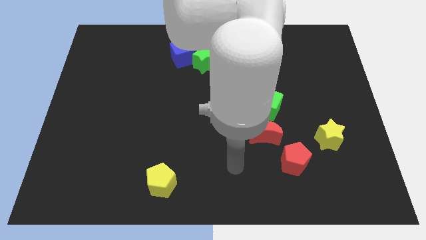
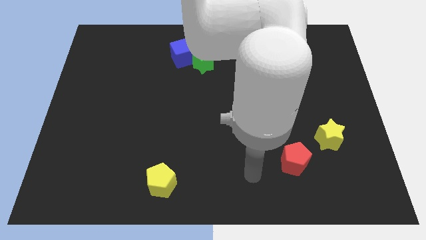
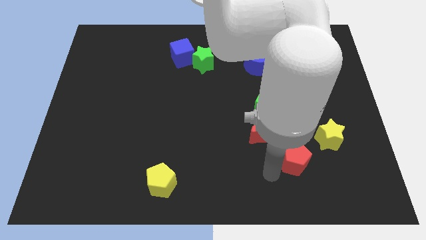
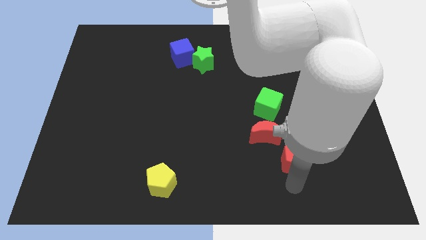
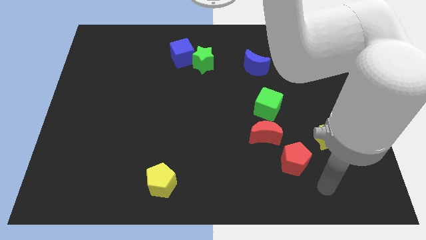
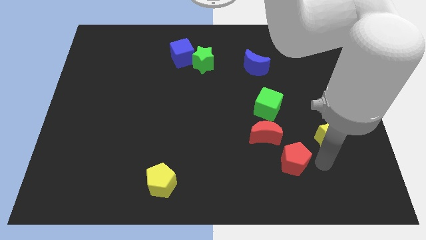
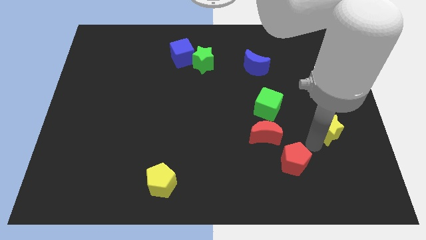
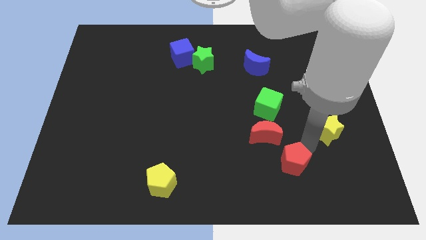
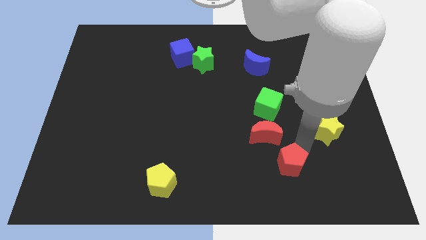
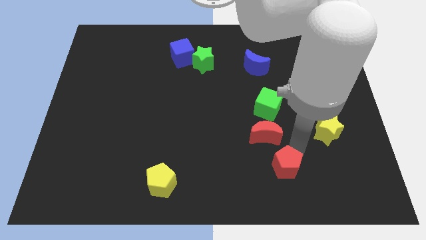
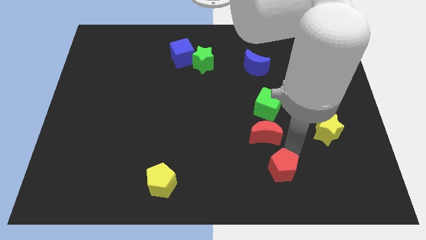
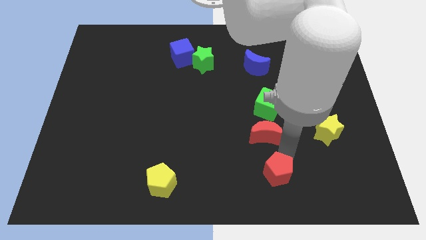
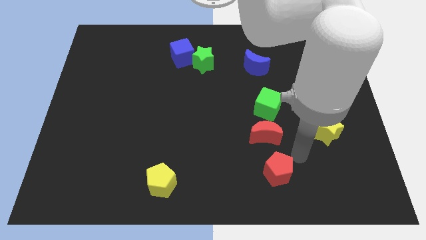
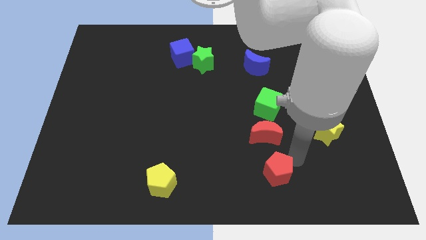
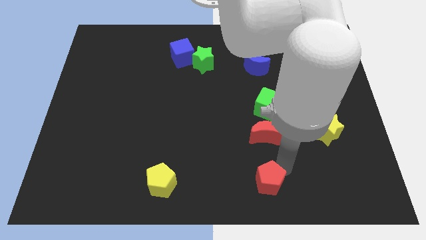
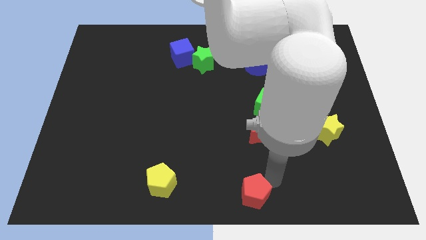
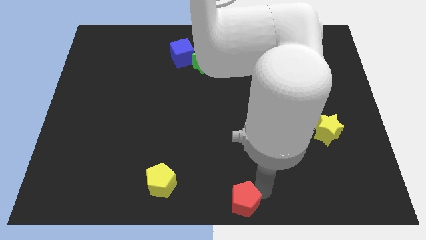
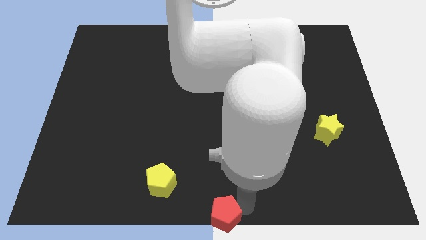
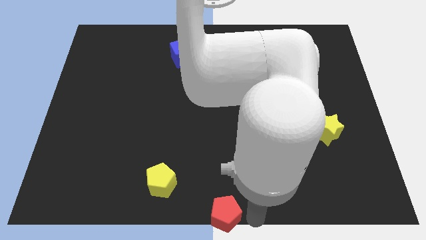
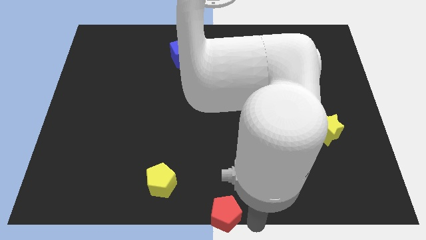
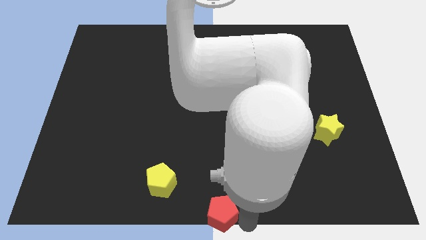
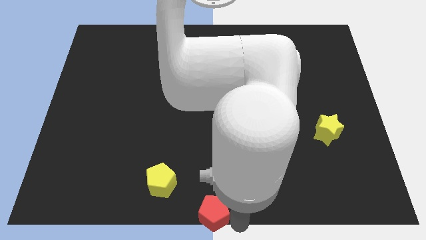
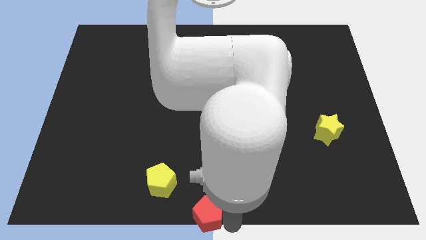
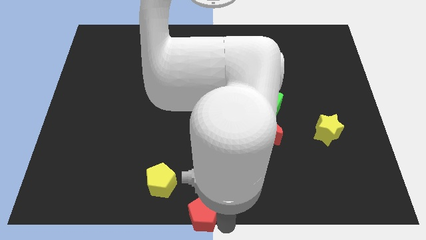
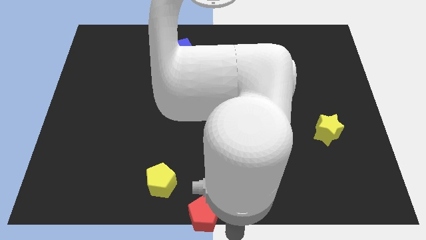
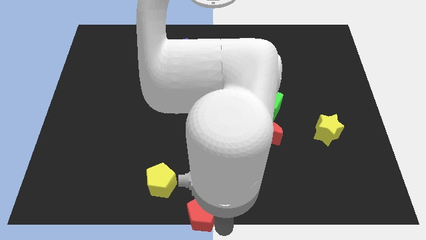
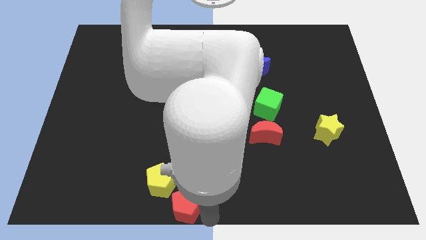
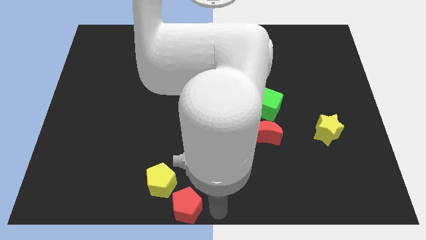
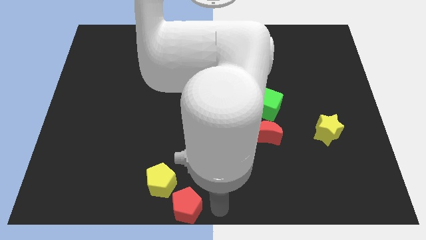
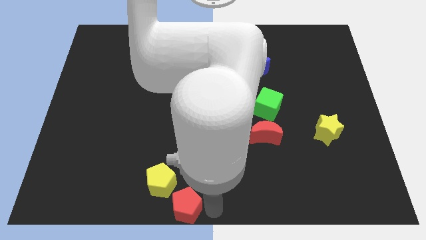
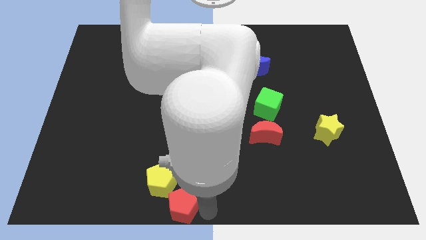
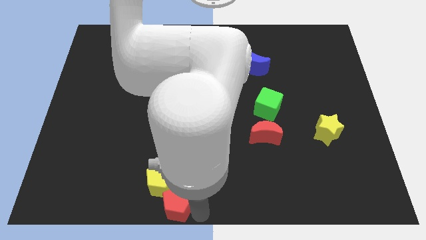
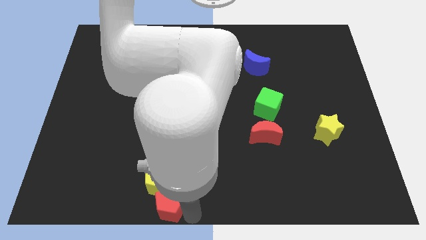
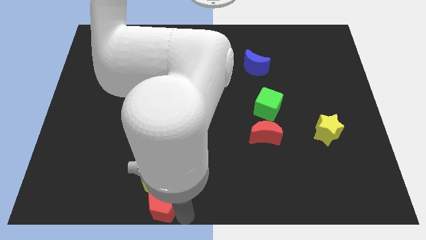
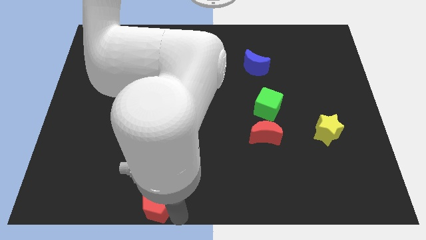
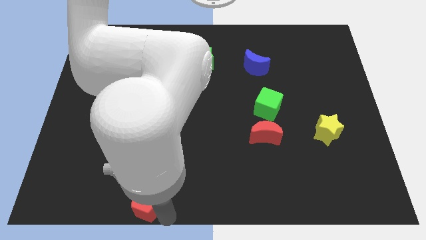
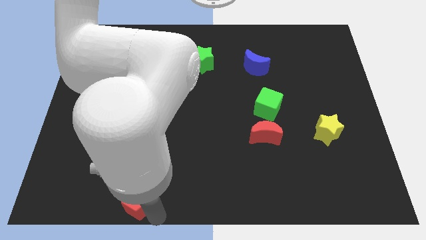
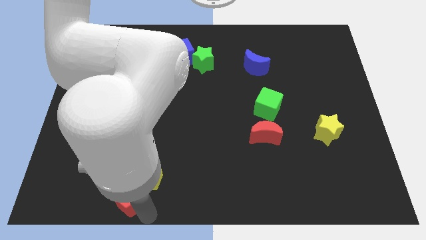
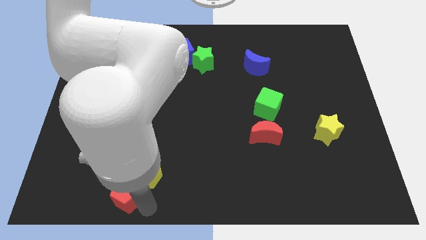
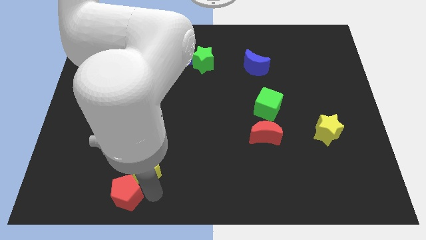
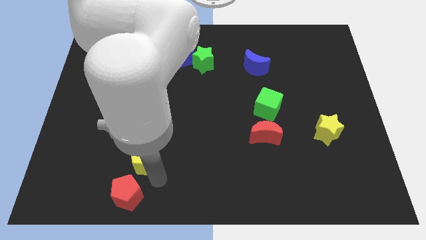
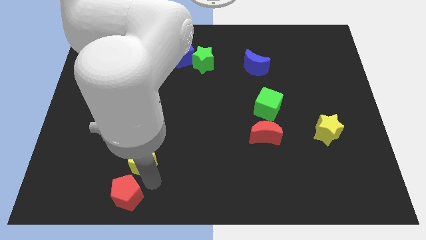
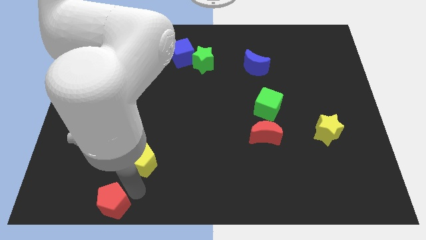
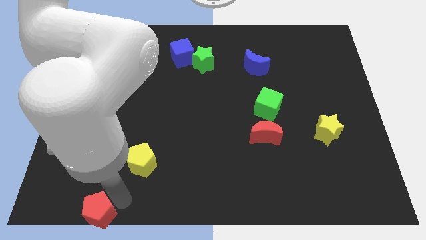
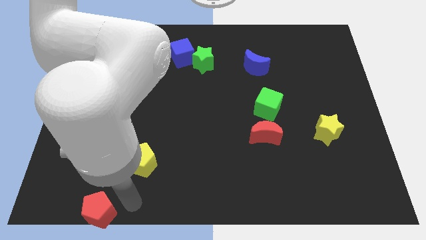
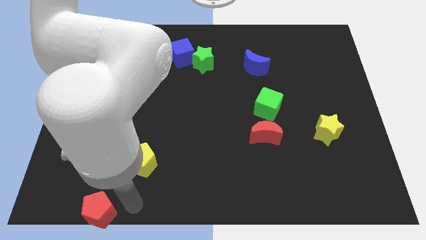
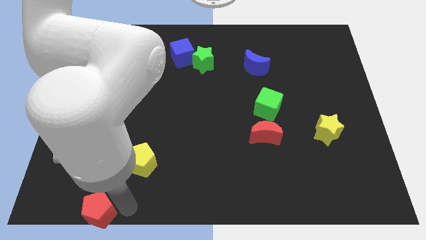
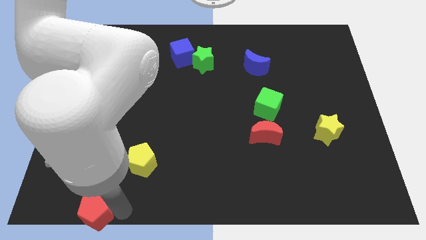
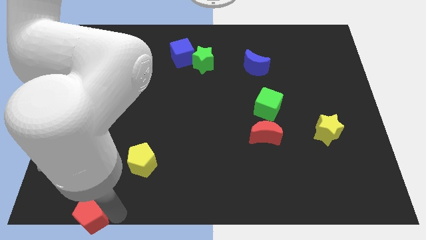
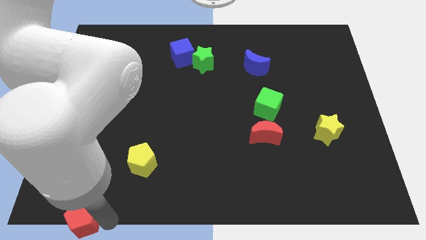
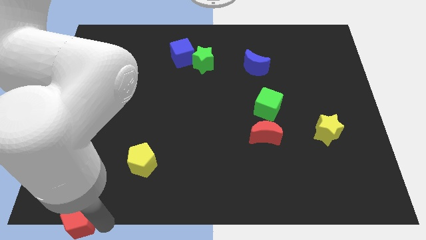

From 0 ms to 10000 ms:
move the red pentagon to the bottom left of the board

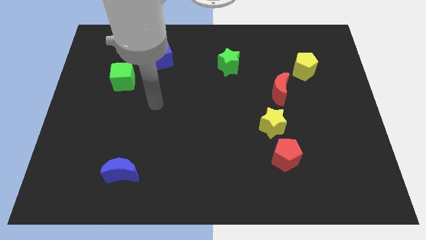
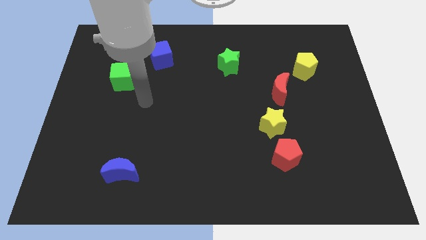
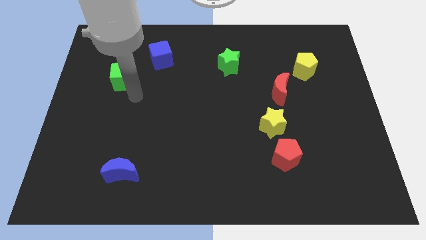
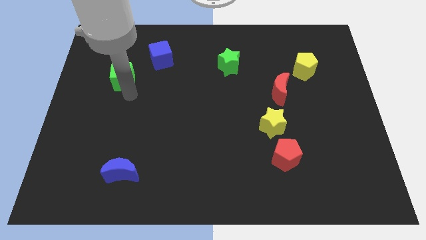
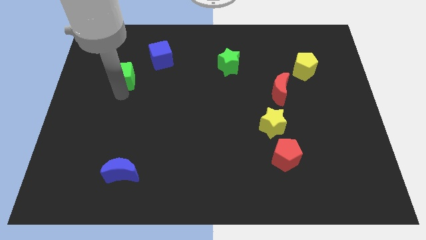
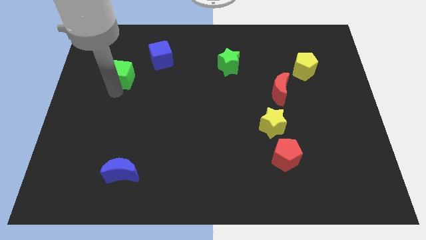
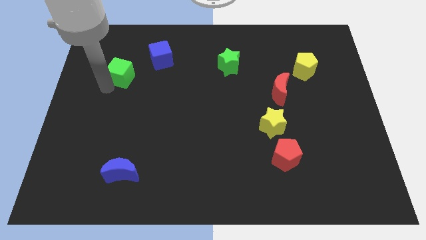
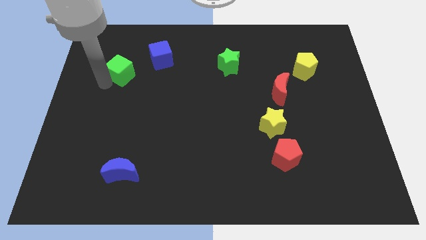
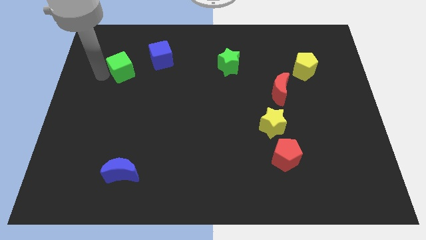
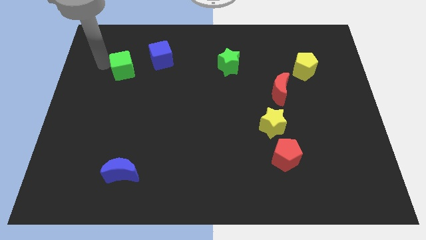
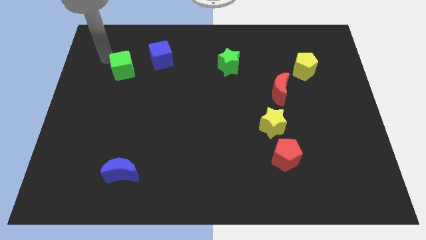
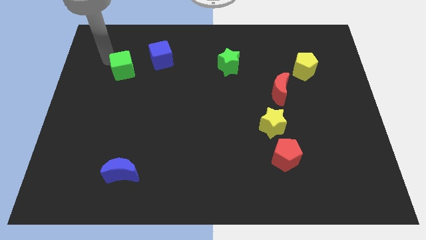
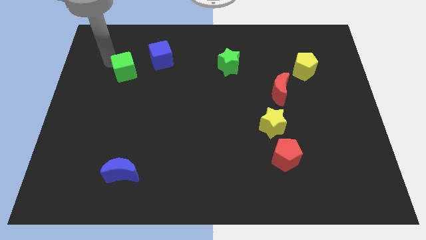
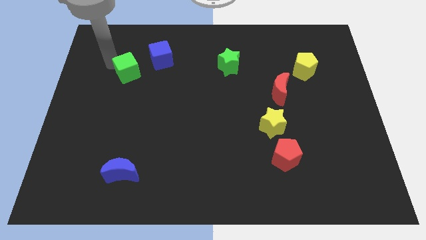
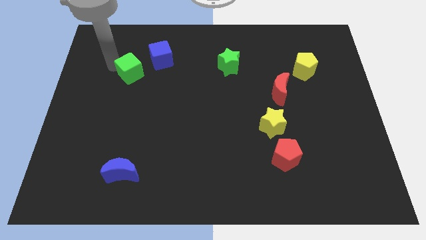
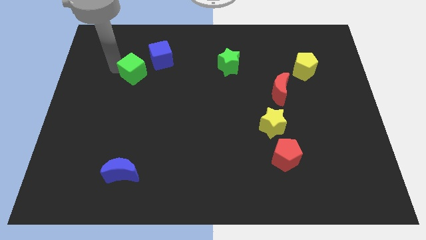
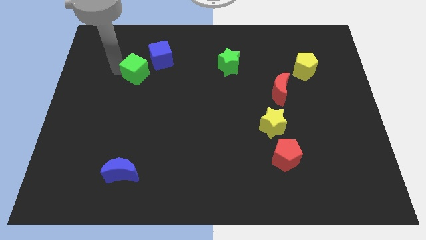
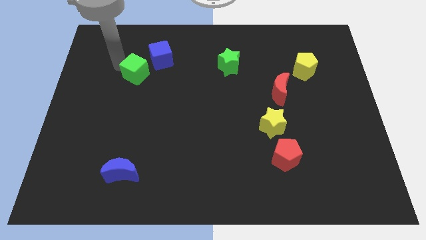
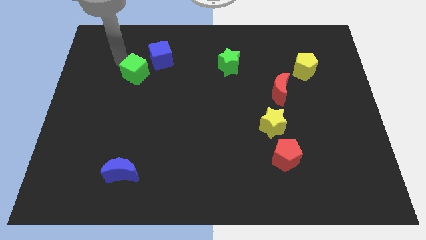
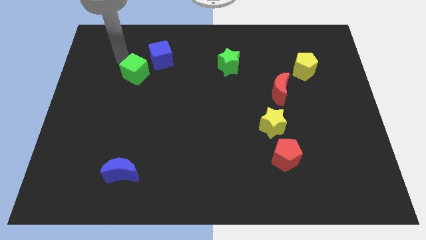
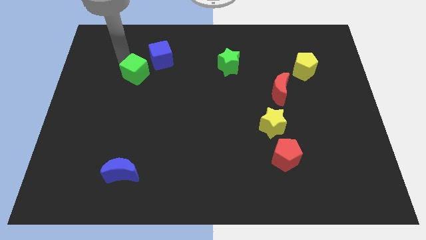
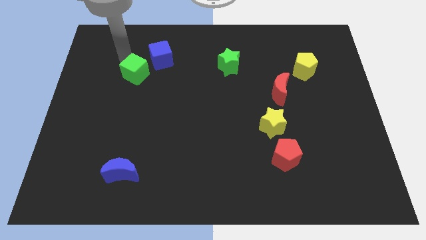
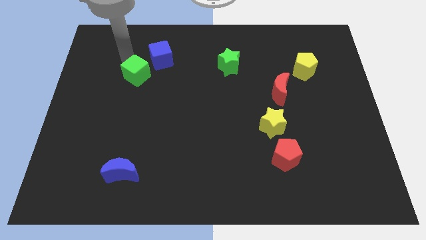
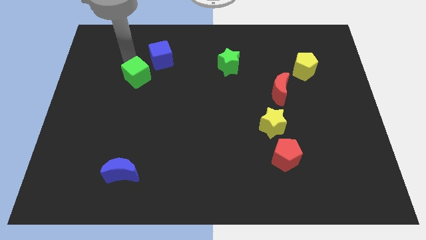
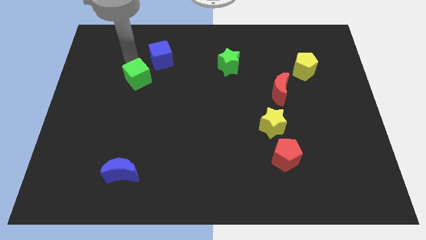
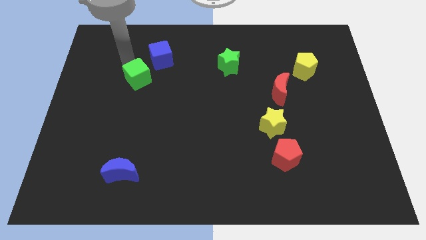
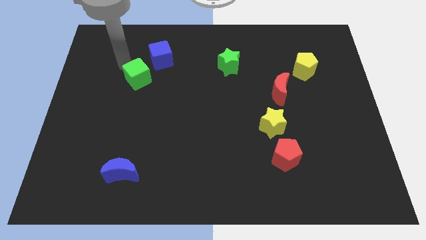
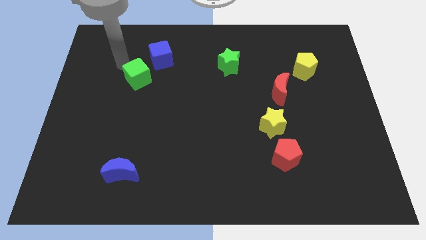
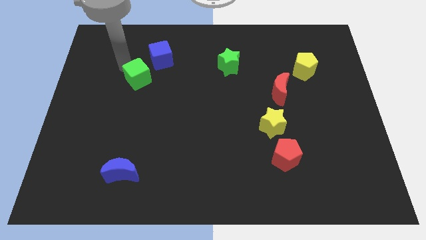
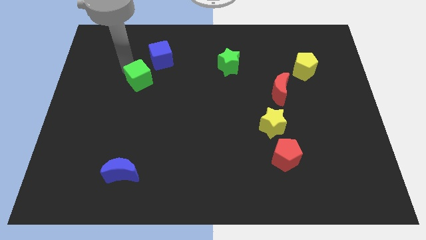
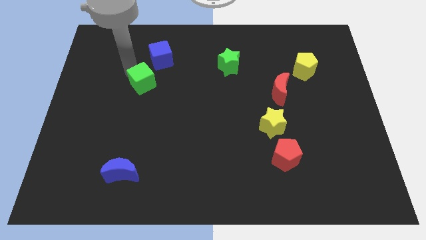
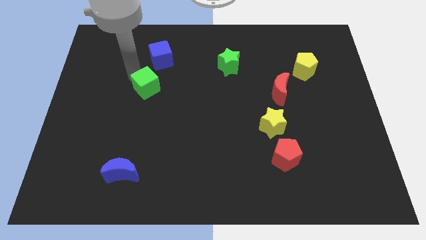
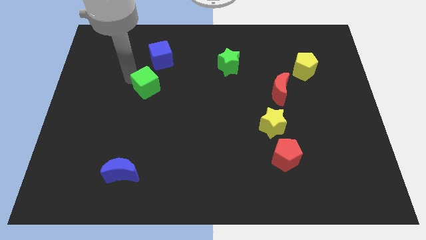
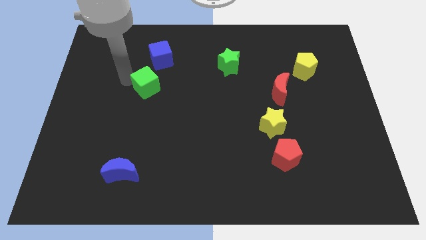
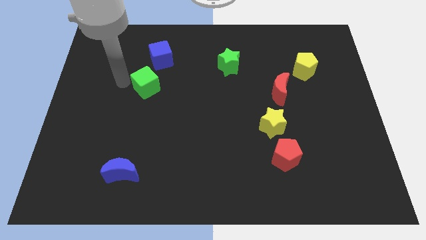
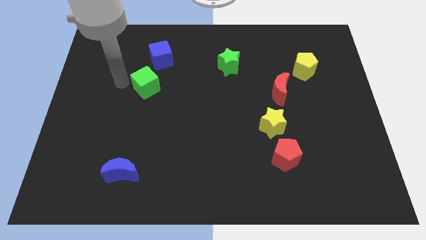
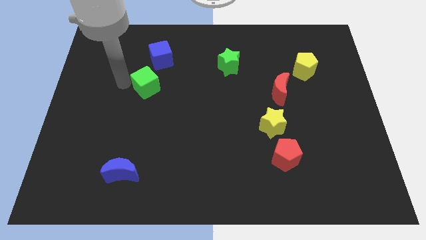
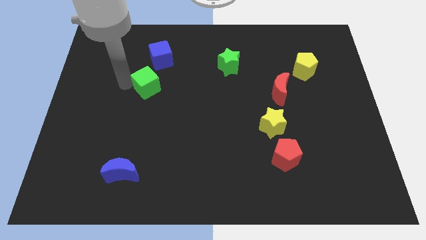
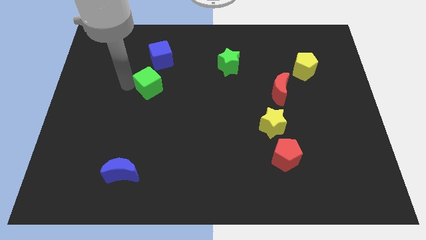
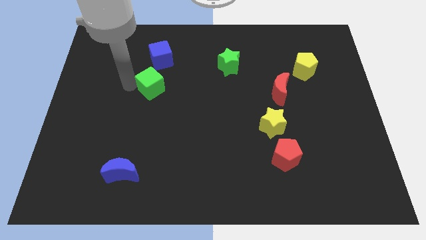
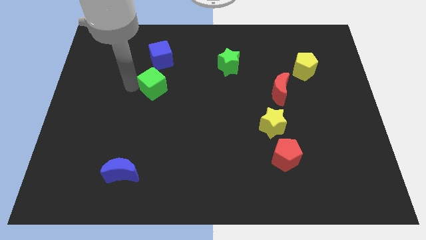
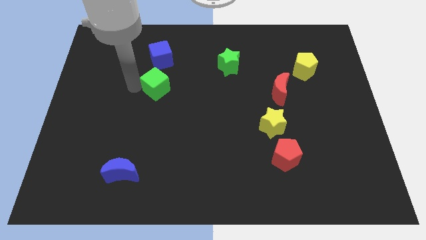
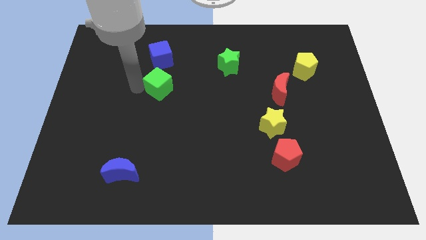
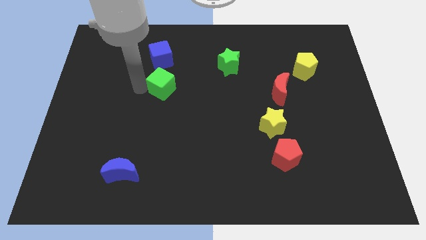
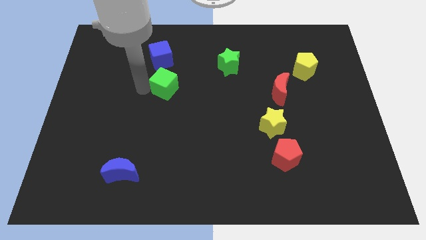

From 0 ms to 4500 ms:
push the green cube to the middle
